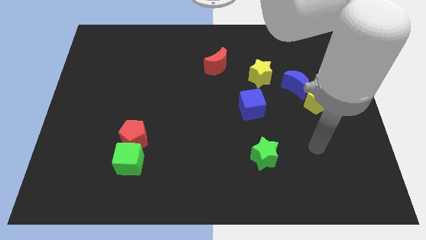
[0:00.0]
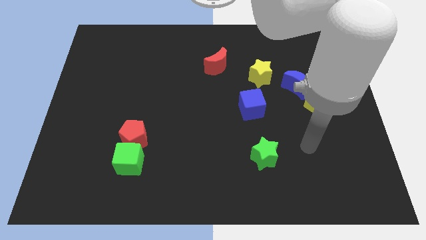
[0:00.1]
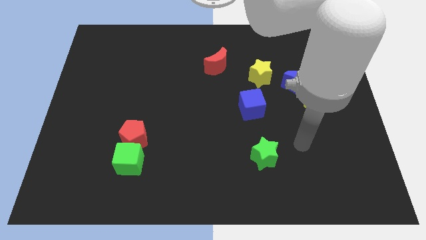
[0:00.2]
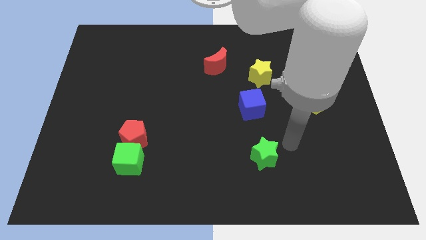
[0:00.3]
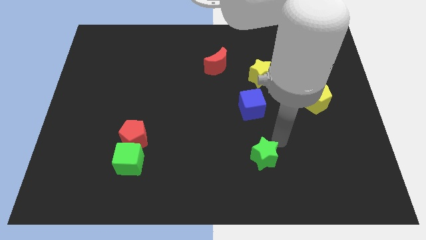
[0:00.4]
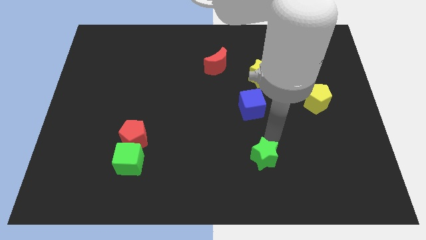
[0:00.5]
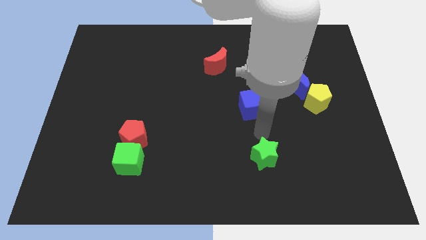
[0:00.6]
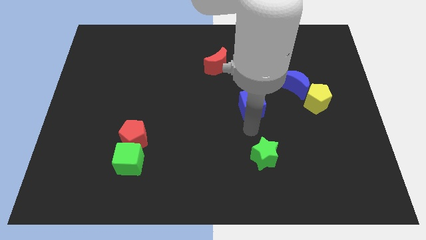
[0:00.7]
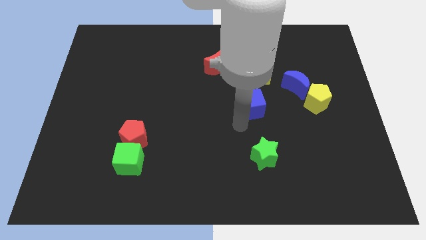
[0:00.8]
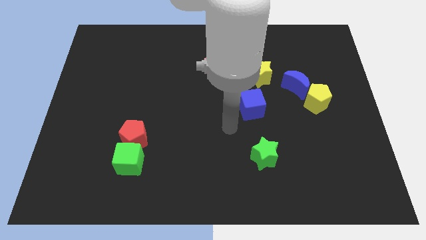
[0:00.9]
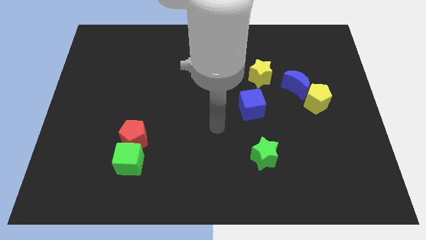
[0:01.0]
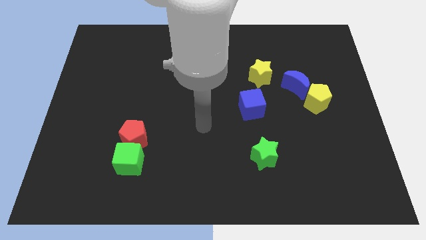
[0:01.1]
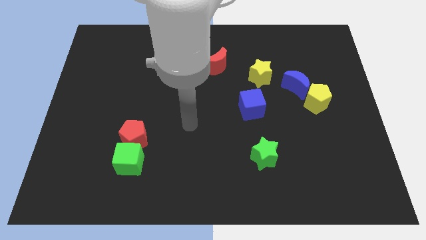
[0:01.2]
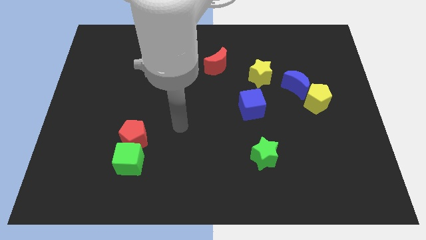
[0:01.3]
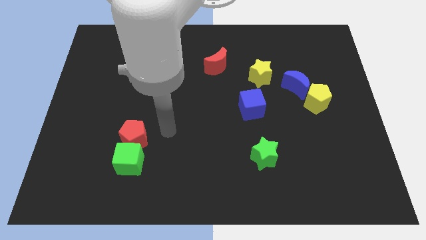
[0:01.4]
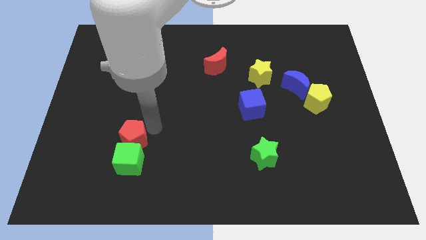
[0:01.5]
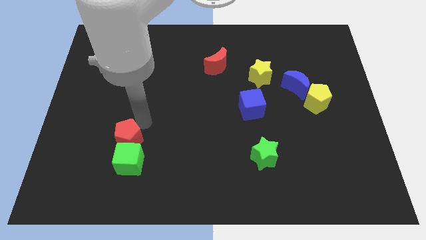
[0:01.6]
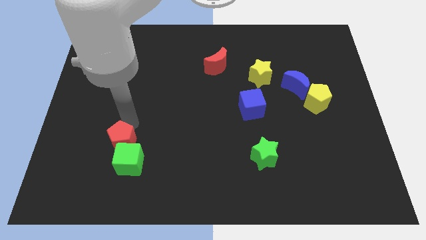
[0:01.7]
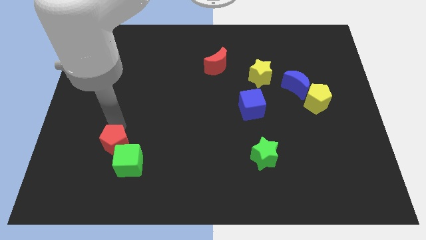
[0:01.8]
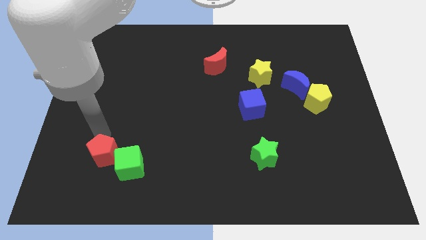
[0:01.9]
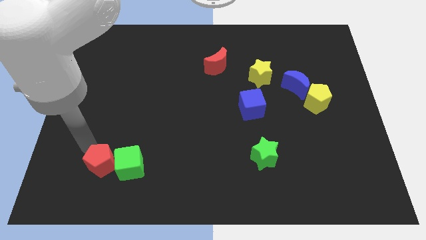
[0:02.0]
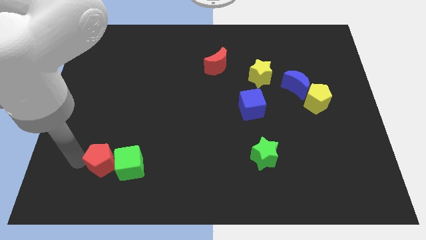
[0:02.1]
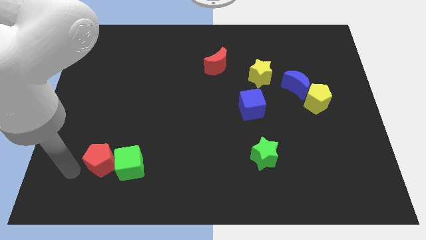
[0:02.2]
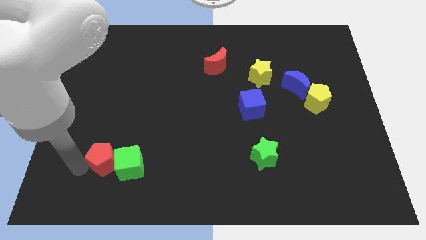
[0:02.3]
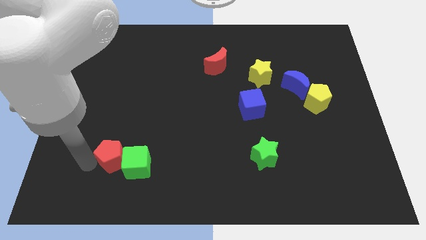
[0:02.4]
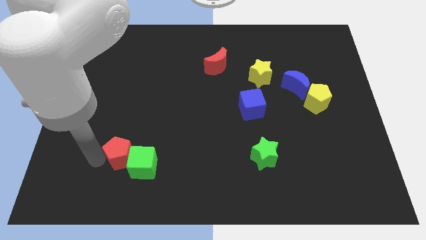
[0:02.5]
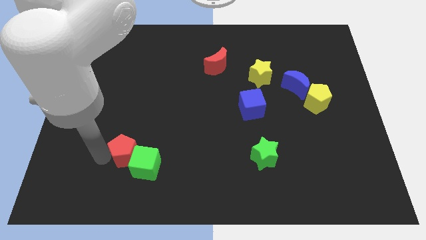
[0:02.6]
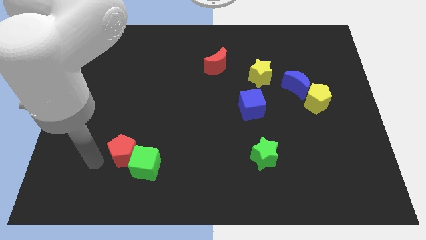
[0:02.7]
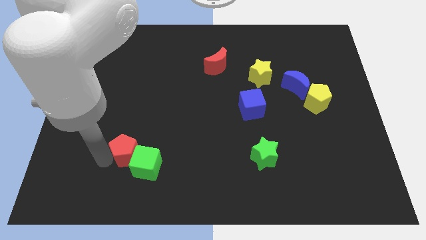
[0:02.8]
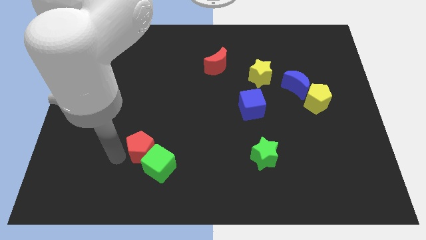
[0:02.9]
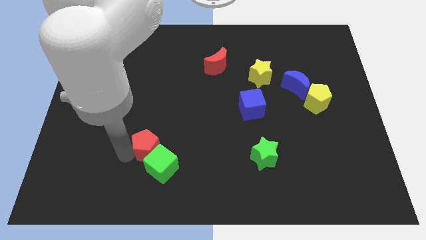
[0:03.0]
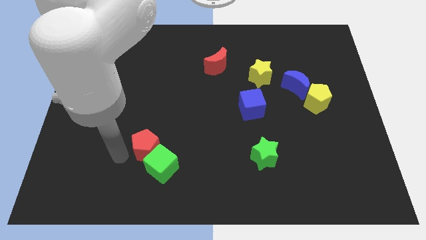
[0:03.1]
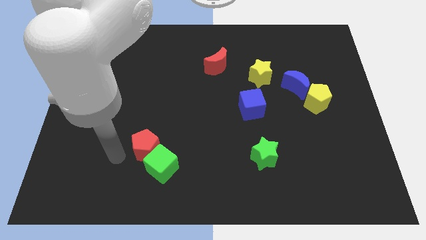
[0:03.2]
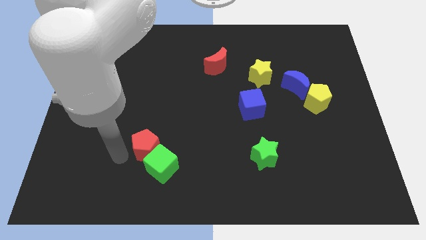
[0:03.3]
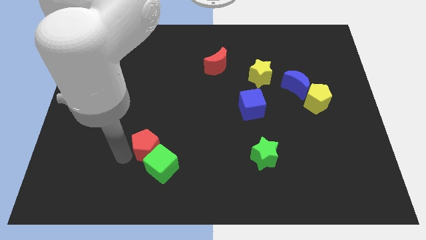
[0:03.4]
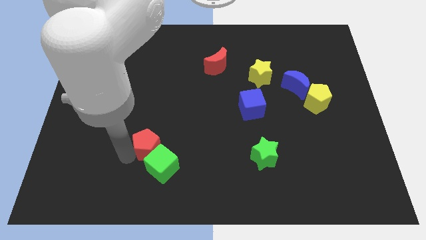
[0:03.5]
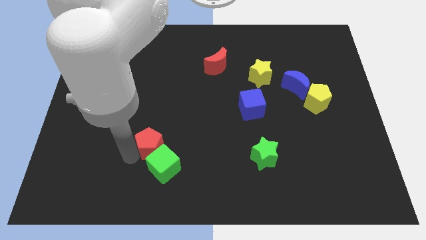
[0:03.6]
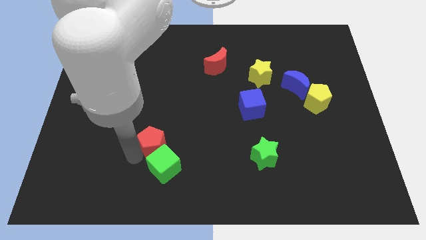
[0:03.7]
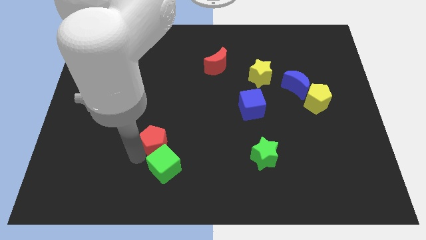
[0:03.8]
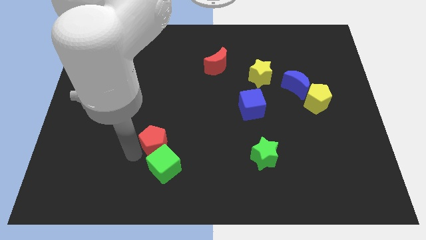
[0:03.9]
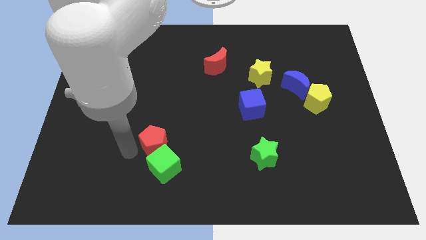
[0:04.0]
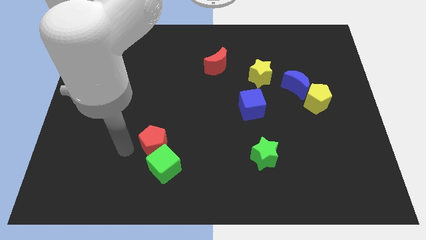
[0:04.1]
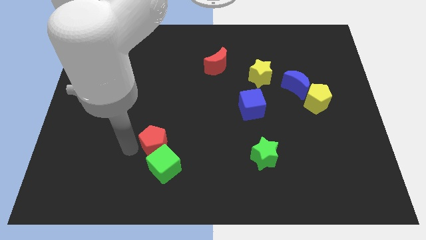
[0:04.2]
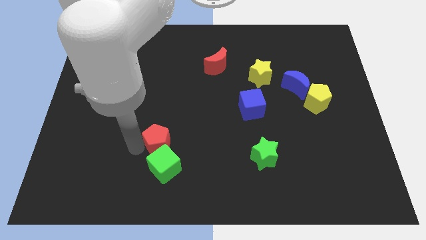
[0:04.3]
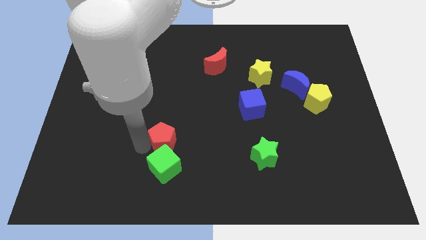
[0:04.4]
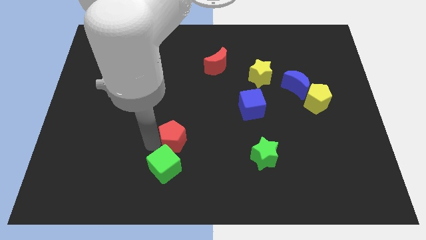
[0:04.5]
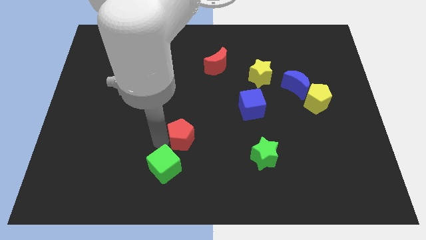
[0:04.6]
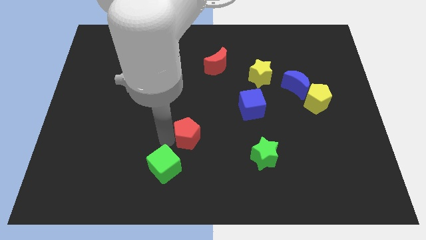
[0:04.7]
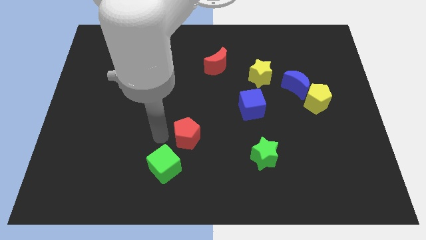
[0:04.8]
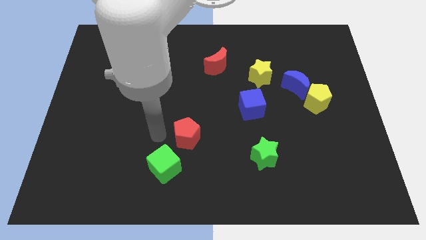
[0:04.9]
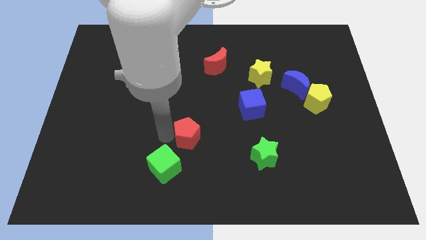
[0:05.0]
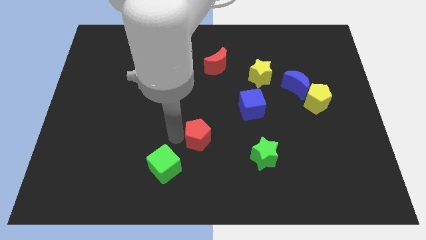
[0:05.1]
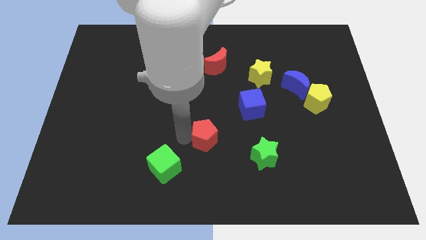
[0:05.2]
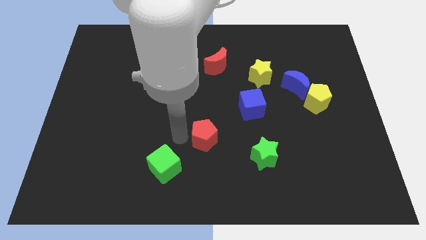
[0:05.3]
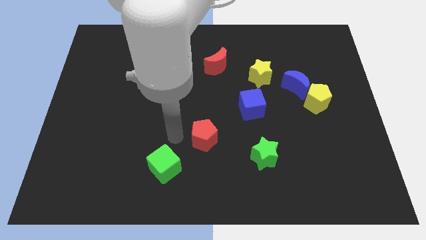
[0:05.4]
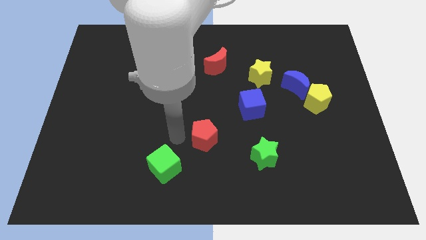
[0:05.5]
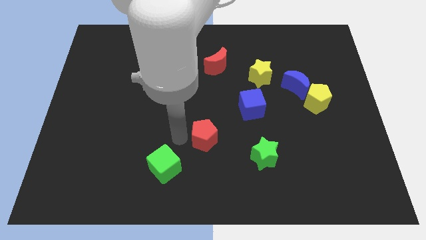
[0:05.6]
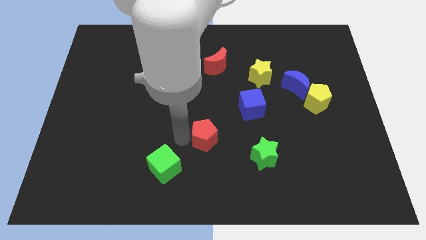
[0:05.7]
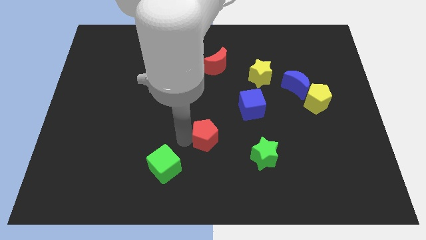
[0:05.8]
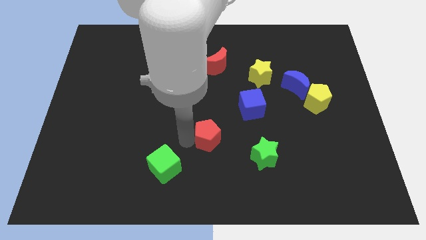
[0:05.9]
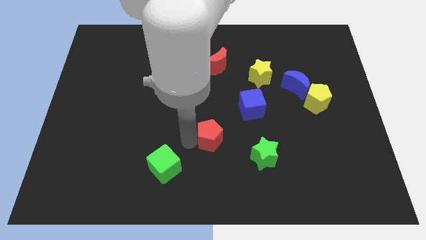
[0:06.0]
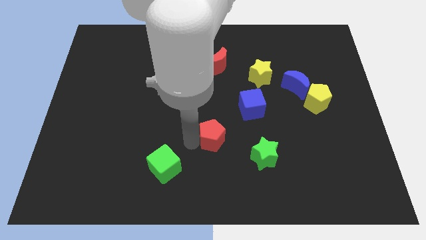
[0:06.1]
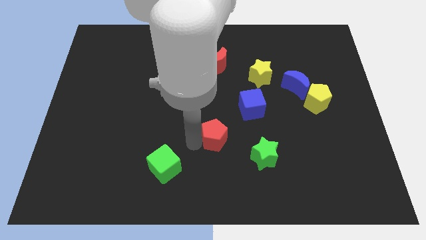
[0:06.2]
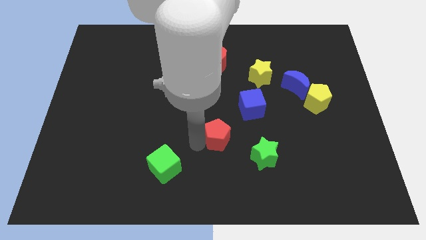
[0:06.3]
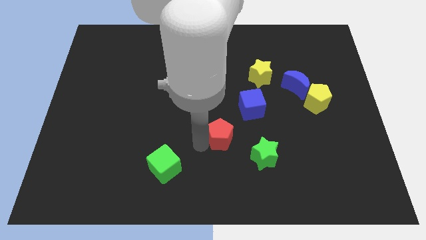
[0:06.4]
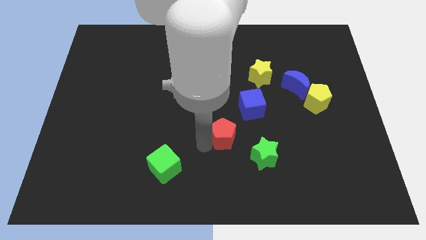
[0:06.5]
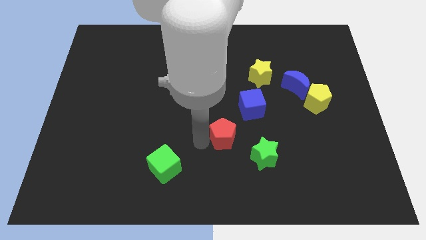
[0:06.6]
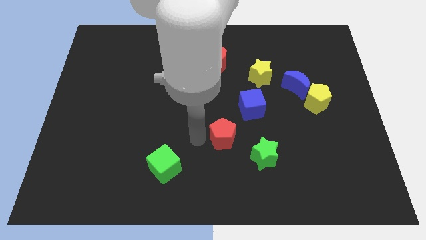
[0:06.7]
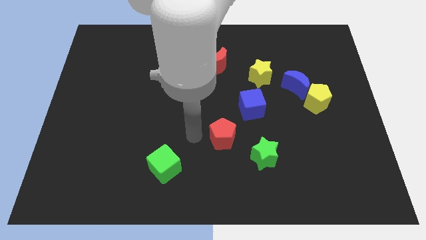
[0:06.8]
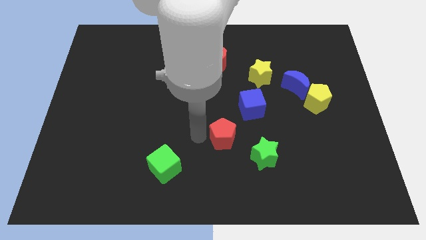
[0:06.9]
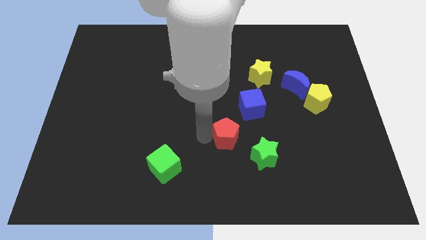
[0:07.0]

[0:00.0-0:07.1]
move the red pentagon right

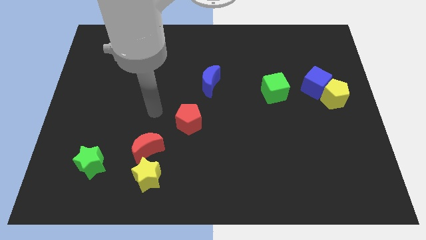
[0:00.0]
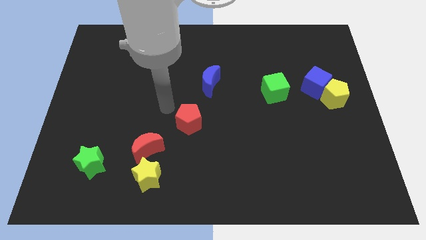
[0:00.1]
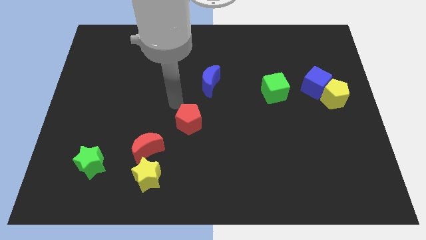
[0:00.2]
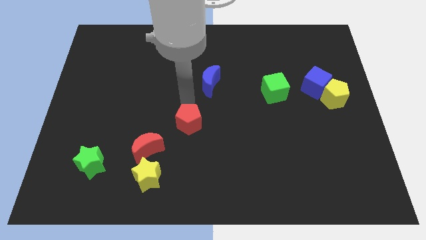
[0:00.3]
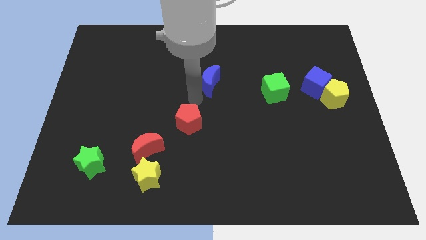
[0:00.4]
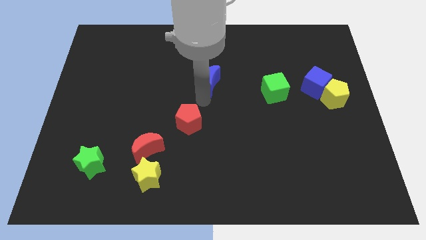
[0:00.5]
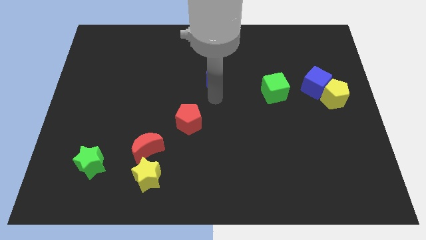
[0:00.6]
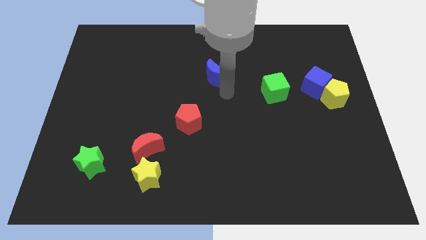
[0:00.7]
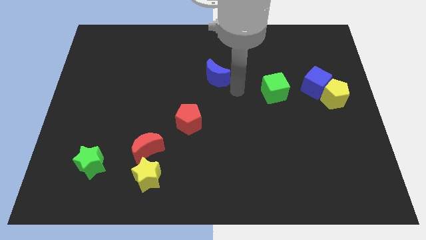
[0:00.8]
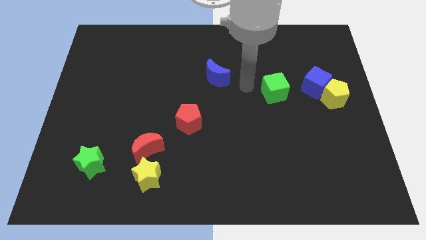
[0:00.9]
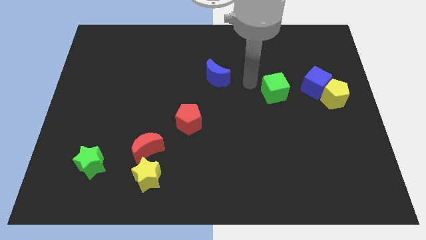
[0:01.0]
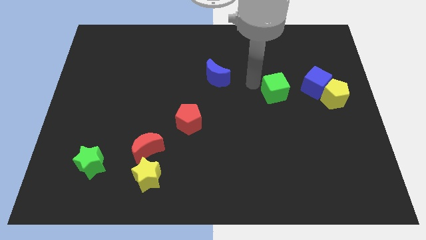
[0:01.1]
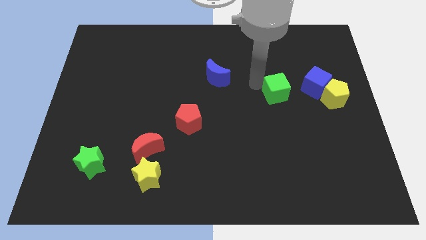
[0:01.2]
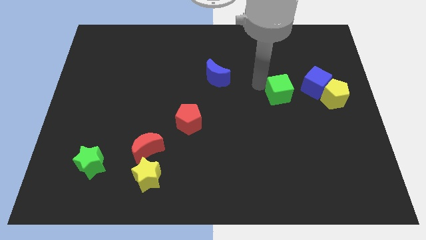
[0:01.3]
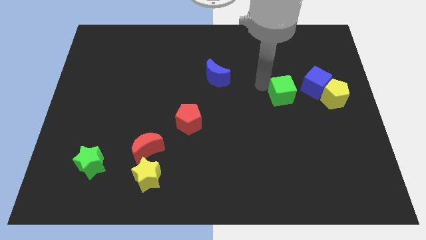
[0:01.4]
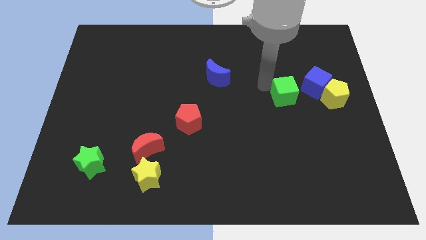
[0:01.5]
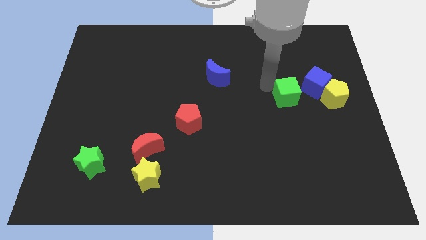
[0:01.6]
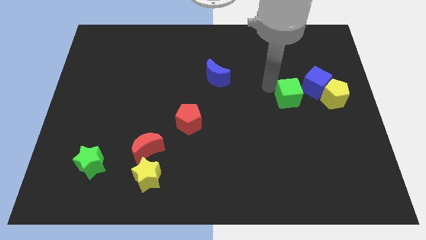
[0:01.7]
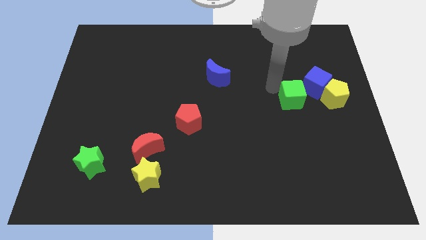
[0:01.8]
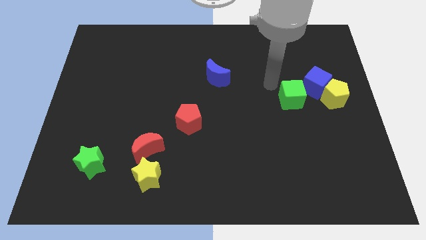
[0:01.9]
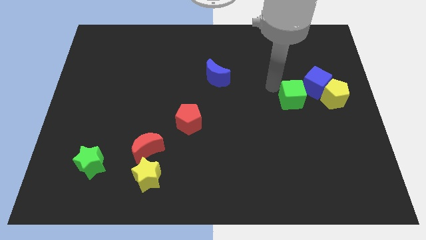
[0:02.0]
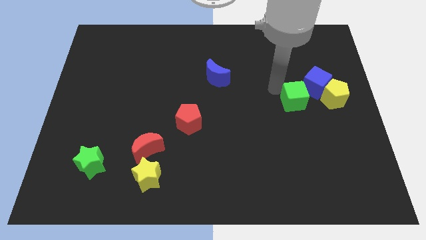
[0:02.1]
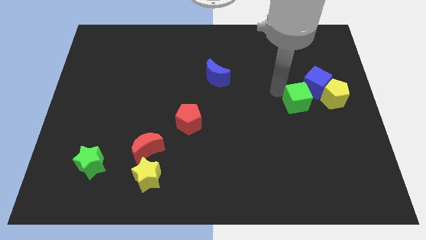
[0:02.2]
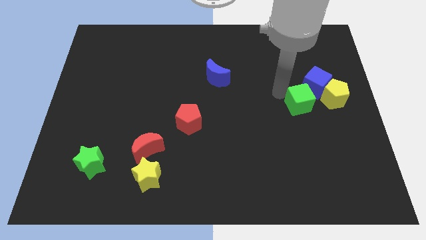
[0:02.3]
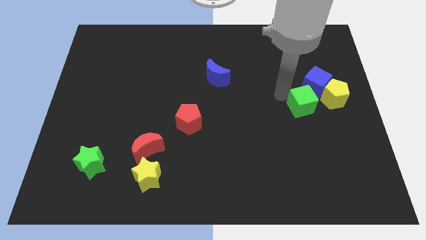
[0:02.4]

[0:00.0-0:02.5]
push the green cube slightly diagonally downwards and right
